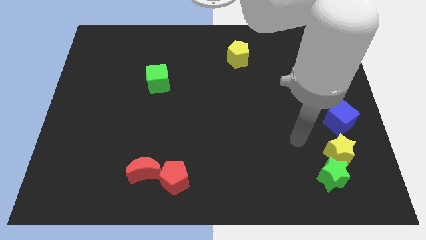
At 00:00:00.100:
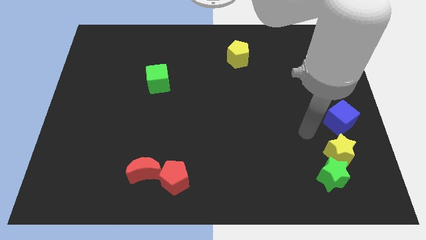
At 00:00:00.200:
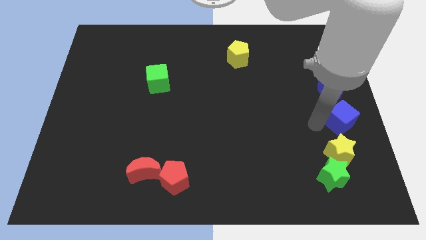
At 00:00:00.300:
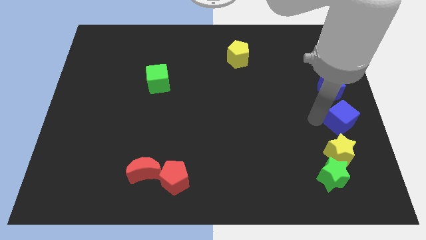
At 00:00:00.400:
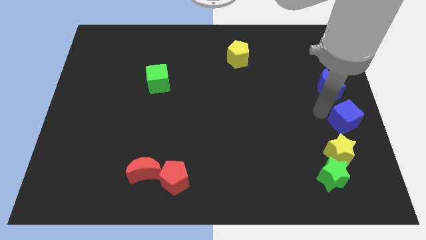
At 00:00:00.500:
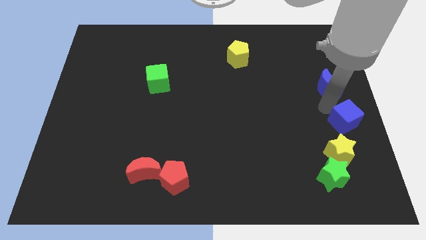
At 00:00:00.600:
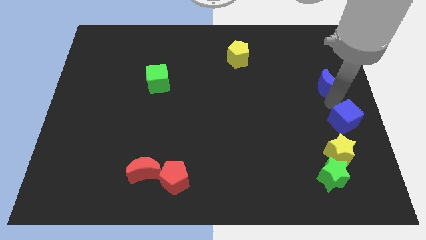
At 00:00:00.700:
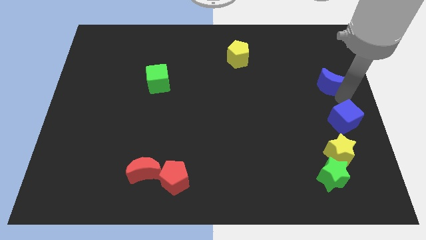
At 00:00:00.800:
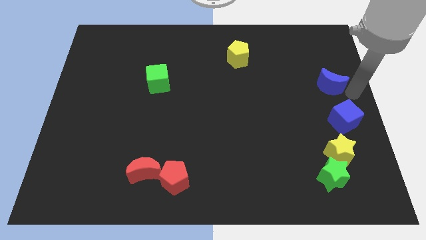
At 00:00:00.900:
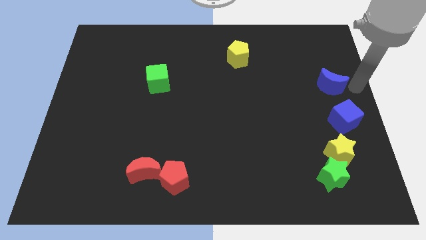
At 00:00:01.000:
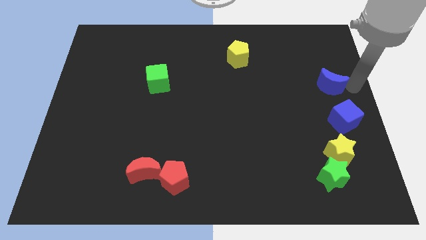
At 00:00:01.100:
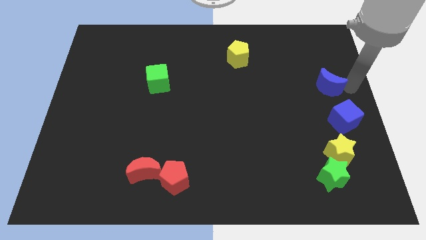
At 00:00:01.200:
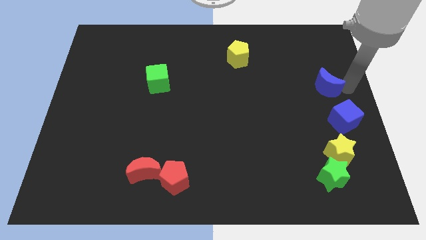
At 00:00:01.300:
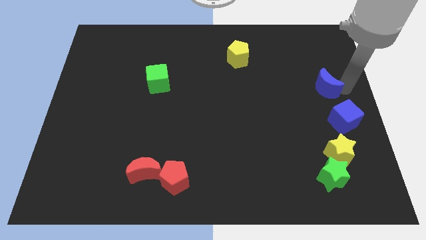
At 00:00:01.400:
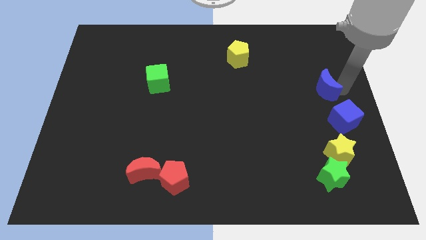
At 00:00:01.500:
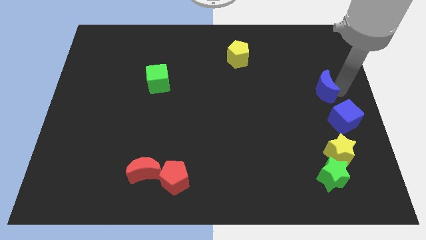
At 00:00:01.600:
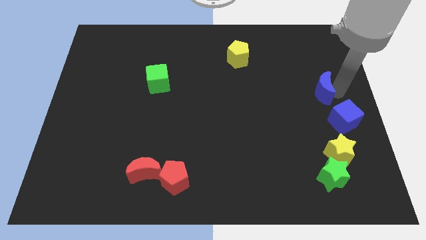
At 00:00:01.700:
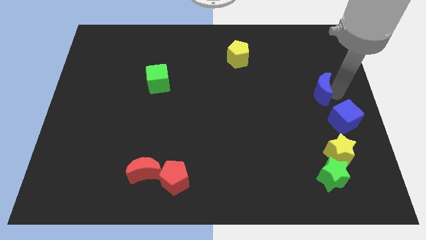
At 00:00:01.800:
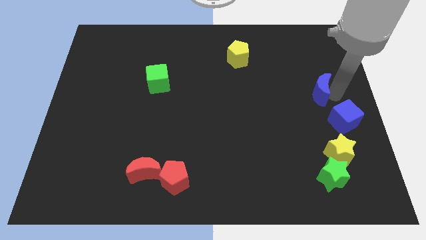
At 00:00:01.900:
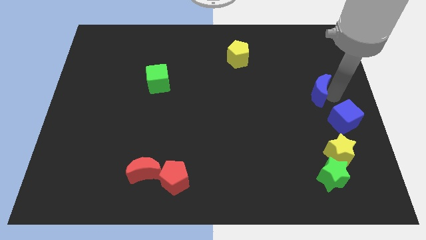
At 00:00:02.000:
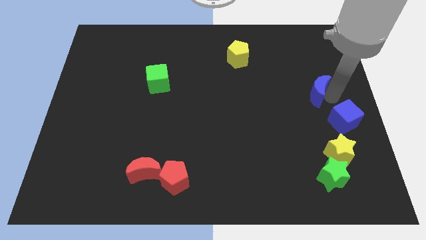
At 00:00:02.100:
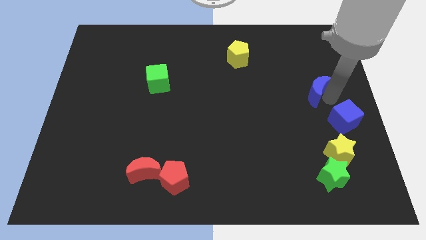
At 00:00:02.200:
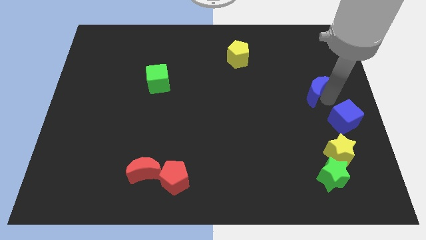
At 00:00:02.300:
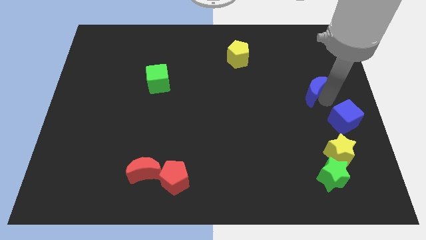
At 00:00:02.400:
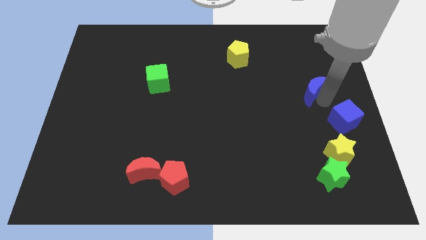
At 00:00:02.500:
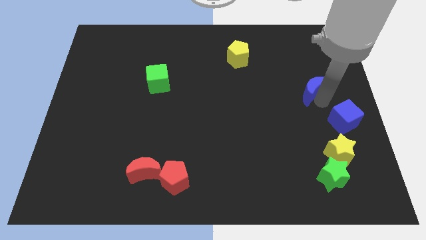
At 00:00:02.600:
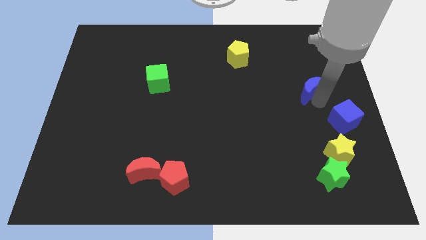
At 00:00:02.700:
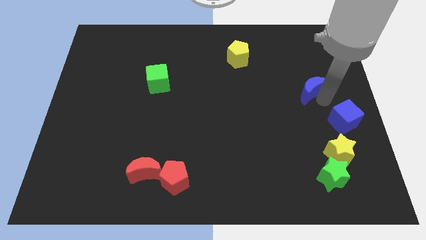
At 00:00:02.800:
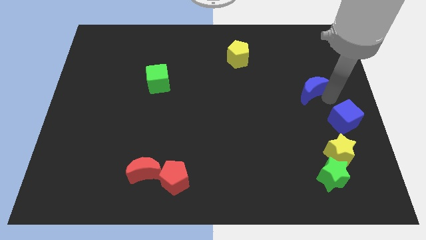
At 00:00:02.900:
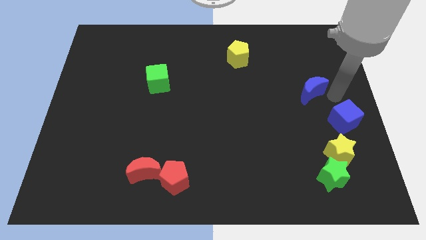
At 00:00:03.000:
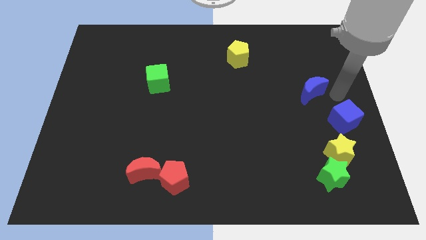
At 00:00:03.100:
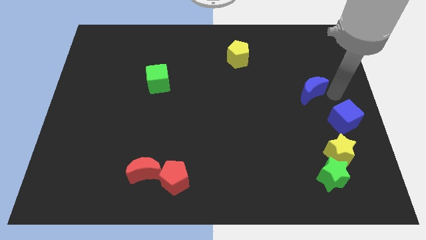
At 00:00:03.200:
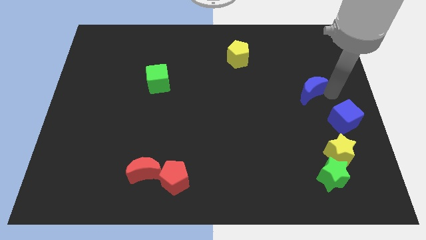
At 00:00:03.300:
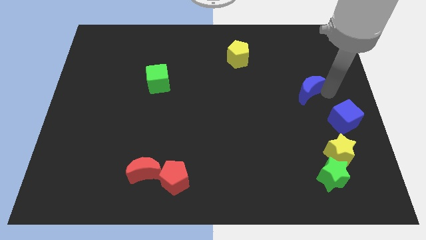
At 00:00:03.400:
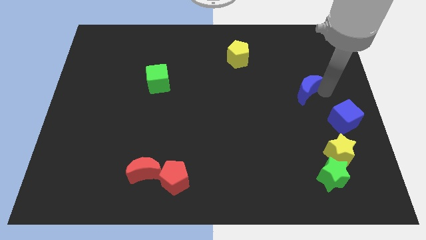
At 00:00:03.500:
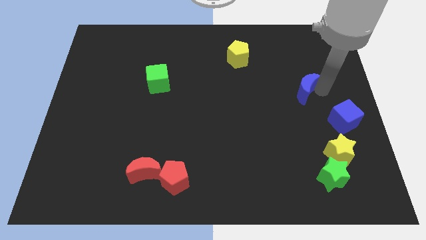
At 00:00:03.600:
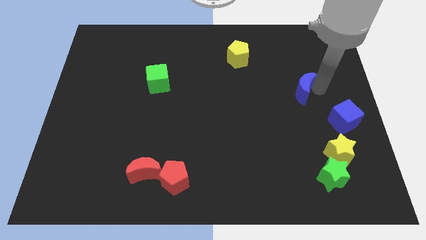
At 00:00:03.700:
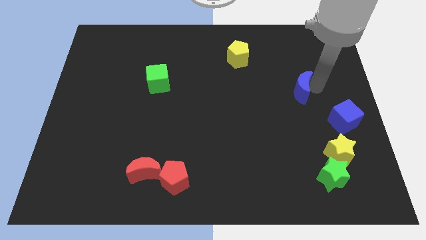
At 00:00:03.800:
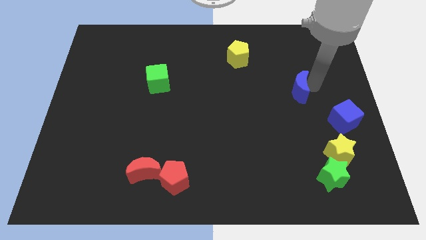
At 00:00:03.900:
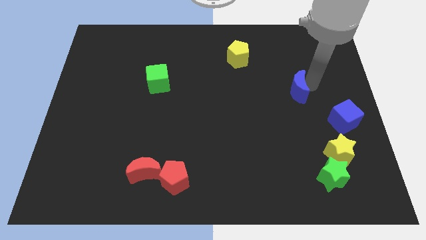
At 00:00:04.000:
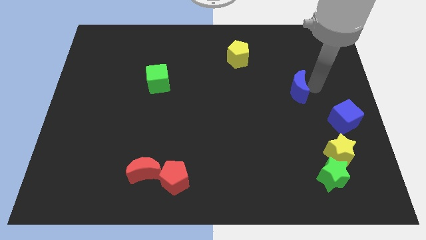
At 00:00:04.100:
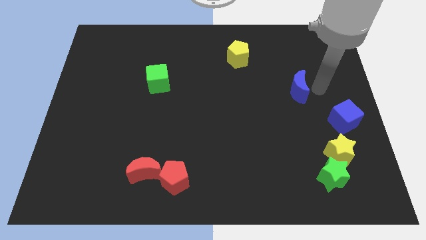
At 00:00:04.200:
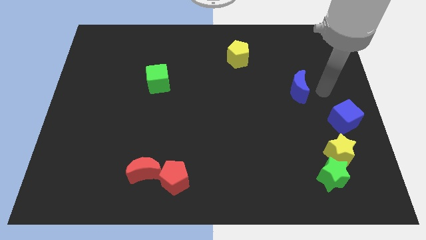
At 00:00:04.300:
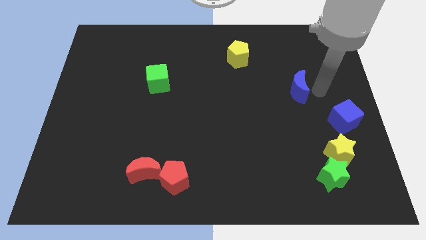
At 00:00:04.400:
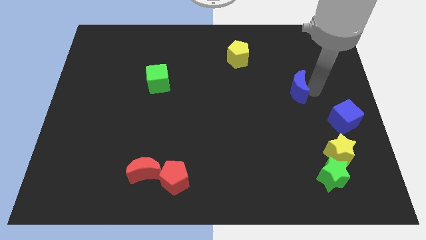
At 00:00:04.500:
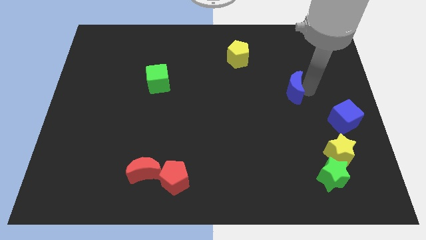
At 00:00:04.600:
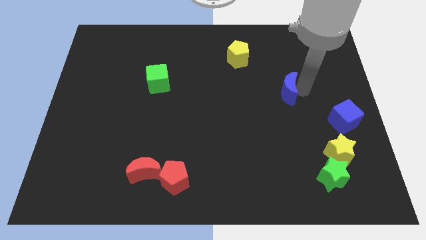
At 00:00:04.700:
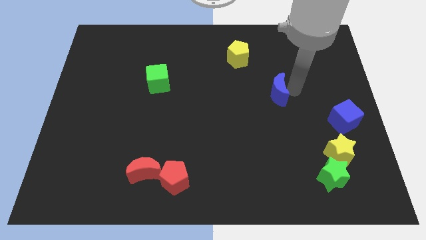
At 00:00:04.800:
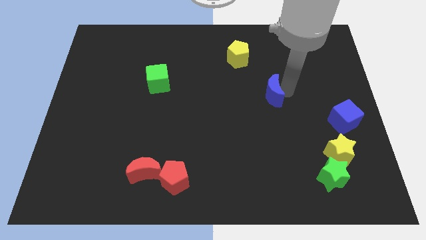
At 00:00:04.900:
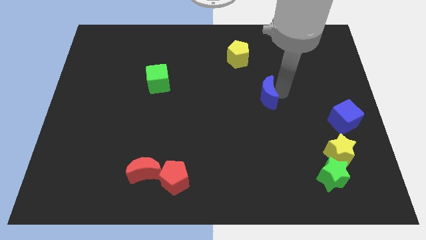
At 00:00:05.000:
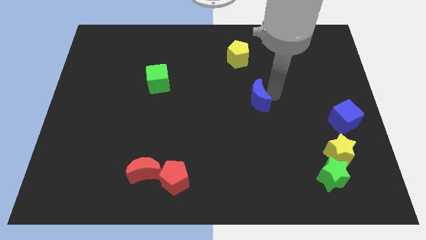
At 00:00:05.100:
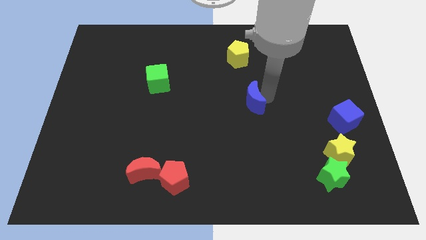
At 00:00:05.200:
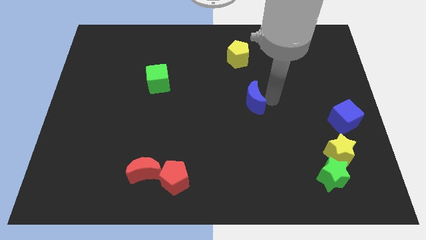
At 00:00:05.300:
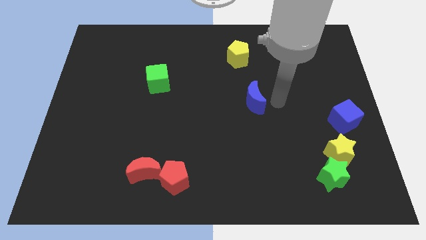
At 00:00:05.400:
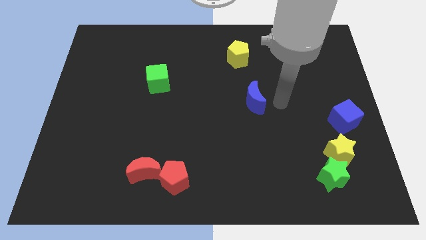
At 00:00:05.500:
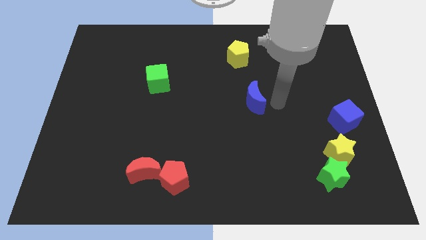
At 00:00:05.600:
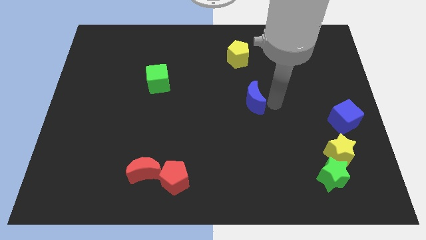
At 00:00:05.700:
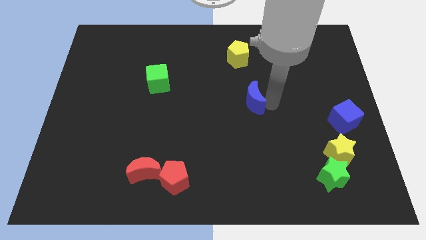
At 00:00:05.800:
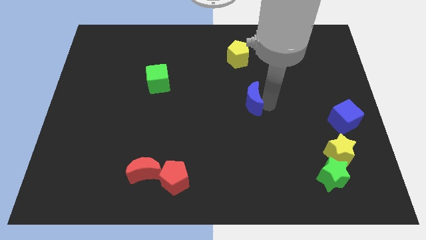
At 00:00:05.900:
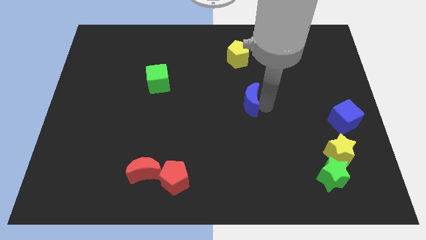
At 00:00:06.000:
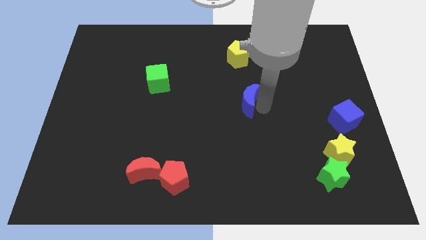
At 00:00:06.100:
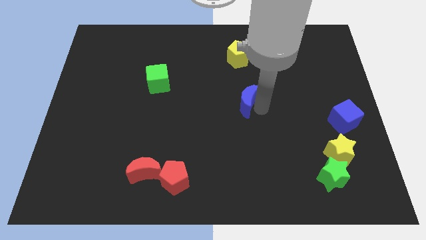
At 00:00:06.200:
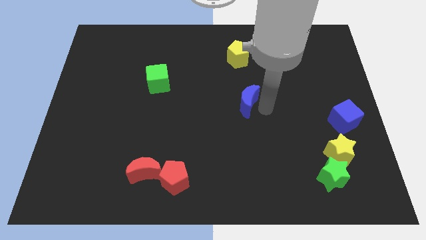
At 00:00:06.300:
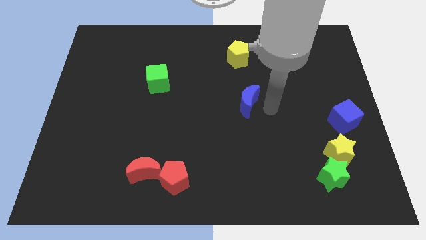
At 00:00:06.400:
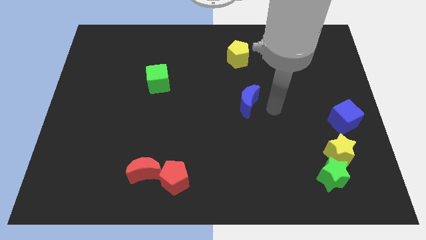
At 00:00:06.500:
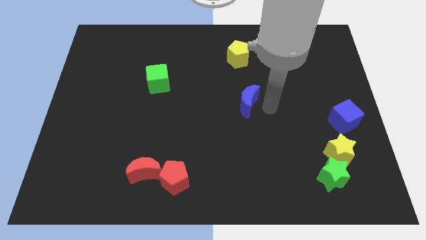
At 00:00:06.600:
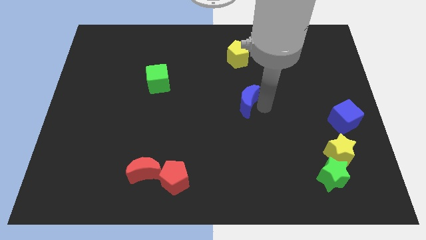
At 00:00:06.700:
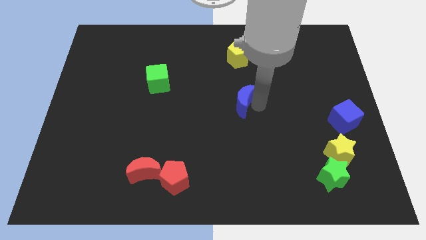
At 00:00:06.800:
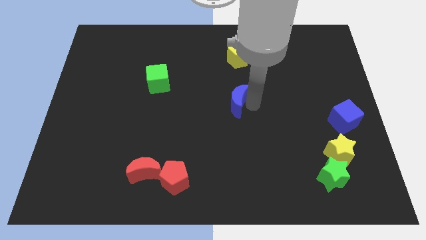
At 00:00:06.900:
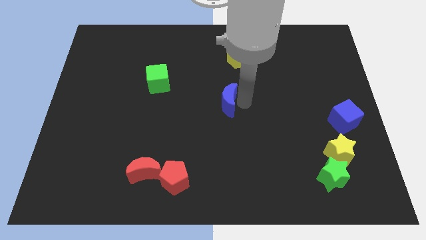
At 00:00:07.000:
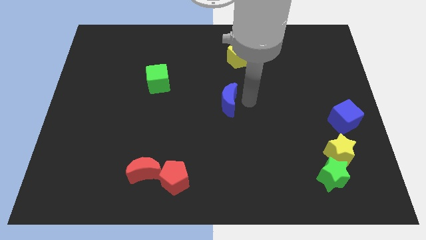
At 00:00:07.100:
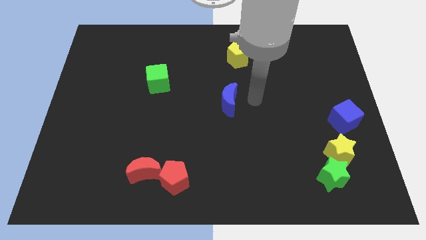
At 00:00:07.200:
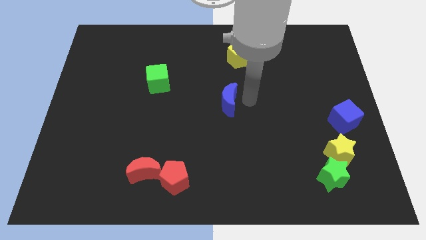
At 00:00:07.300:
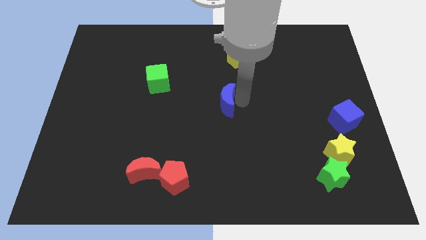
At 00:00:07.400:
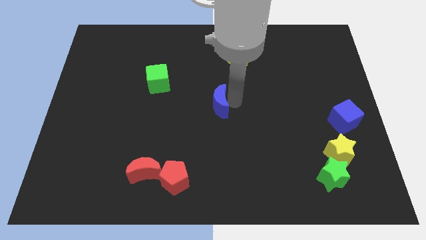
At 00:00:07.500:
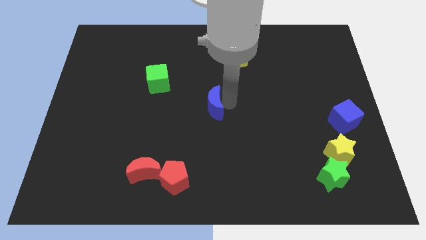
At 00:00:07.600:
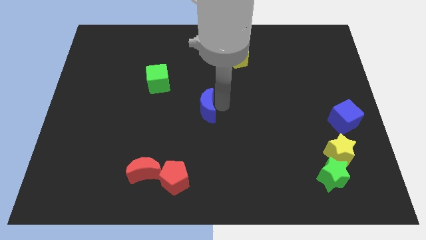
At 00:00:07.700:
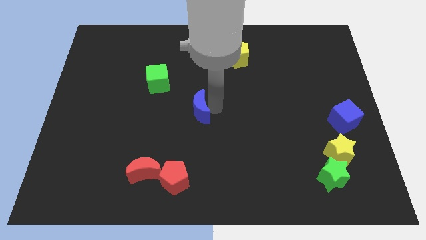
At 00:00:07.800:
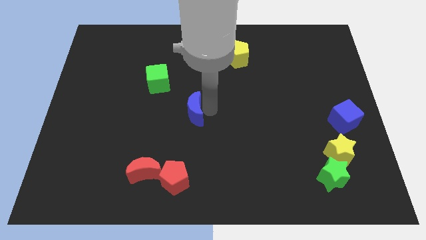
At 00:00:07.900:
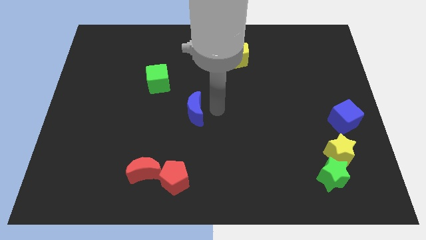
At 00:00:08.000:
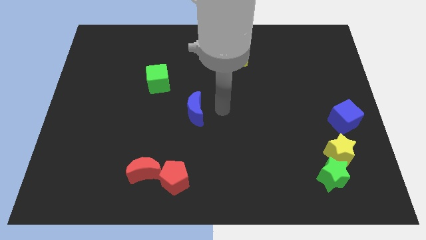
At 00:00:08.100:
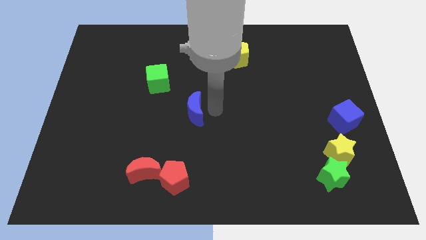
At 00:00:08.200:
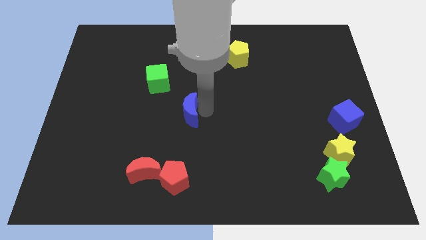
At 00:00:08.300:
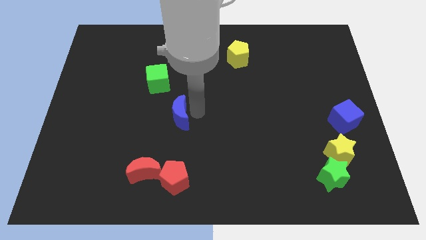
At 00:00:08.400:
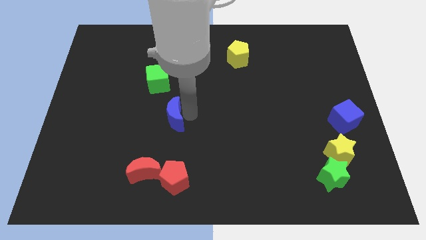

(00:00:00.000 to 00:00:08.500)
move the blue moon below the green cube
